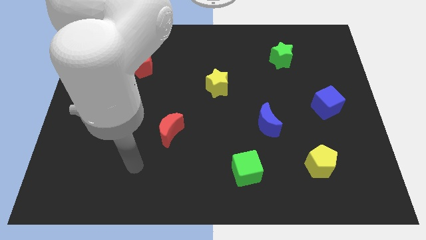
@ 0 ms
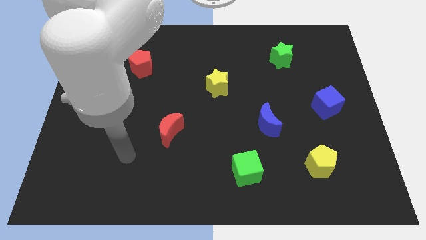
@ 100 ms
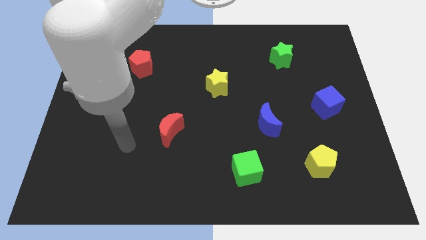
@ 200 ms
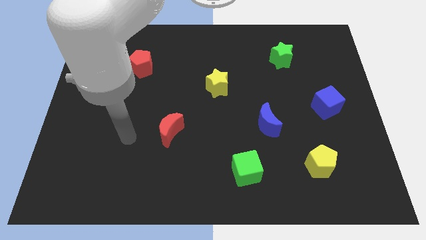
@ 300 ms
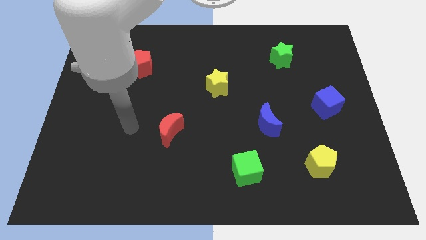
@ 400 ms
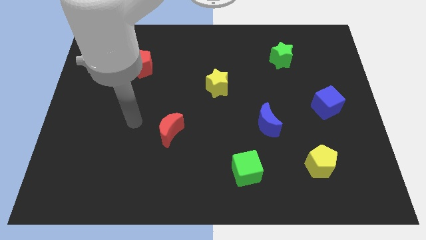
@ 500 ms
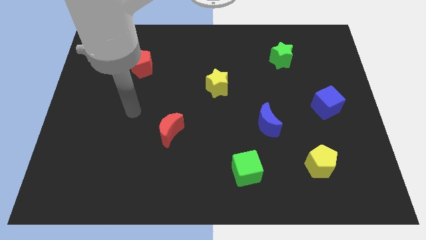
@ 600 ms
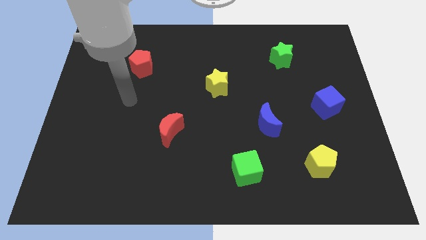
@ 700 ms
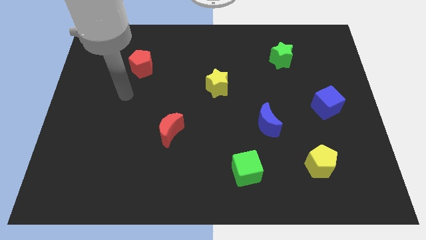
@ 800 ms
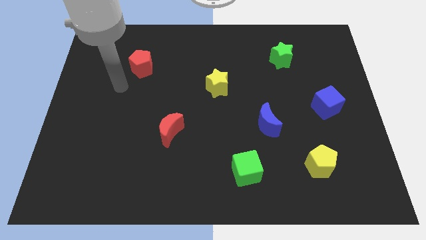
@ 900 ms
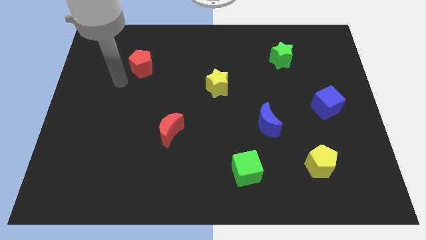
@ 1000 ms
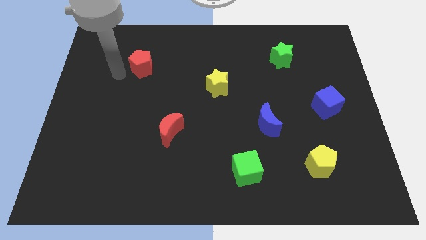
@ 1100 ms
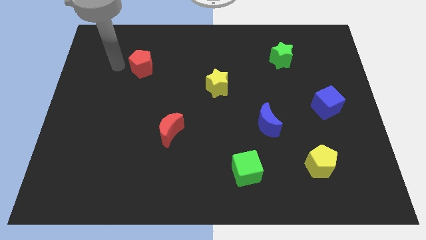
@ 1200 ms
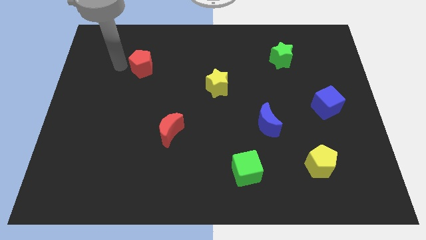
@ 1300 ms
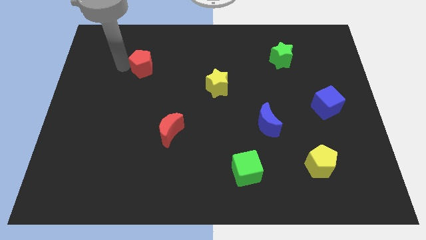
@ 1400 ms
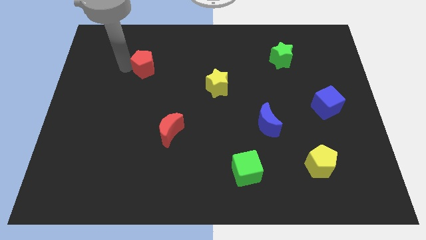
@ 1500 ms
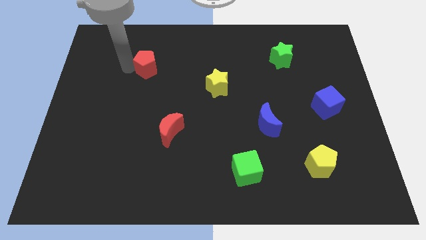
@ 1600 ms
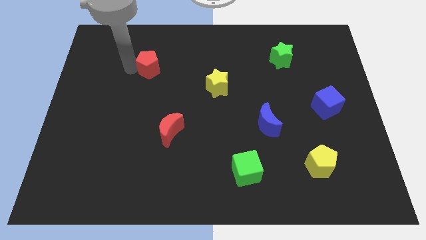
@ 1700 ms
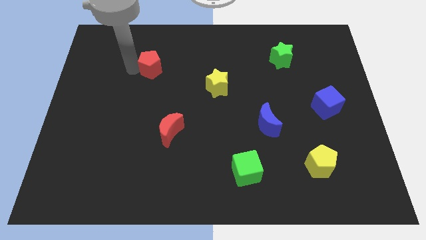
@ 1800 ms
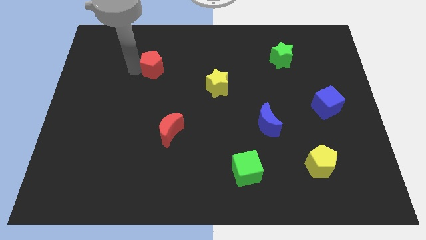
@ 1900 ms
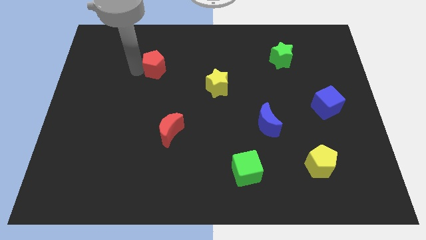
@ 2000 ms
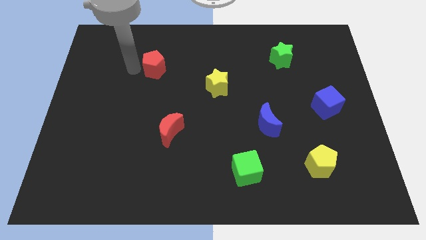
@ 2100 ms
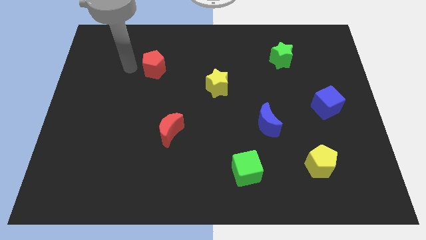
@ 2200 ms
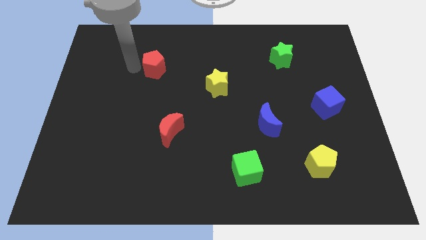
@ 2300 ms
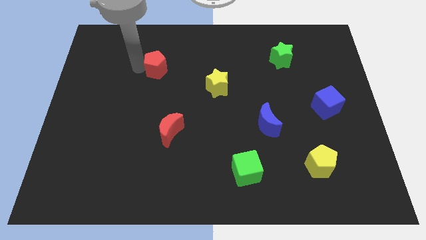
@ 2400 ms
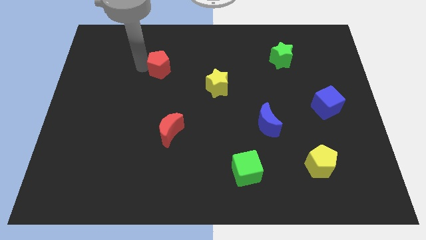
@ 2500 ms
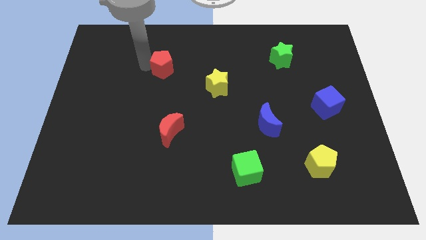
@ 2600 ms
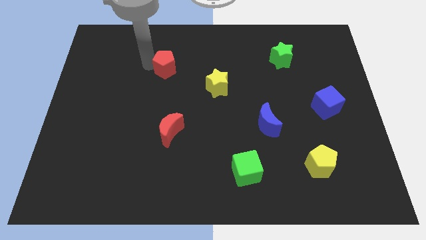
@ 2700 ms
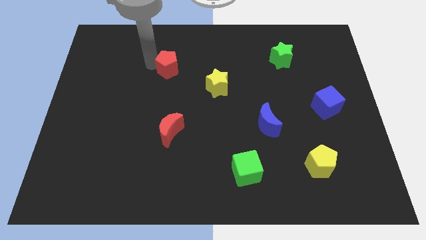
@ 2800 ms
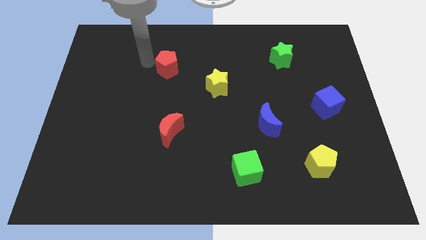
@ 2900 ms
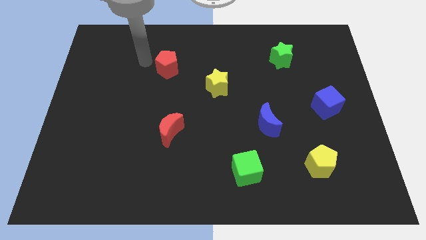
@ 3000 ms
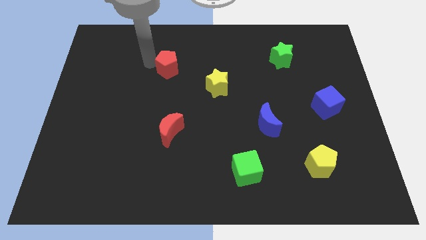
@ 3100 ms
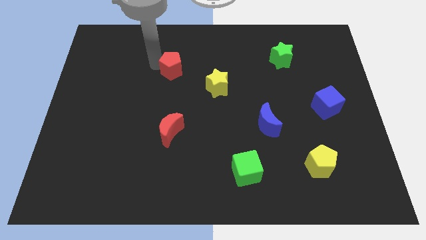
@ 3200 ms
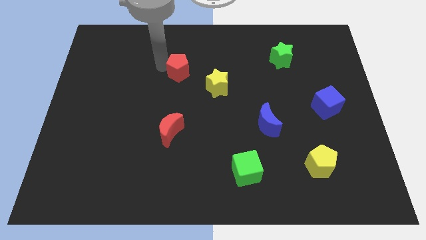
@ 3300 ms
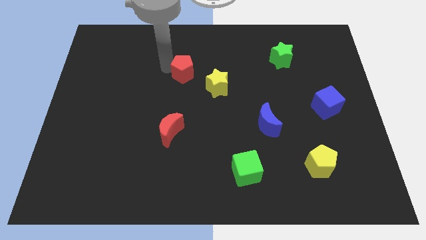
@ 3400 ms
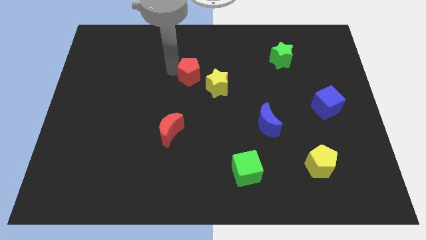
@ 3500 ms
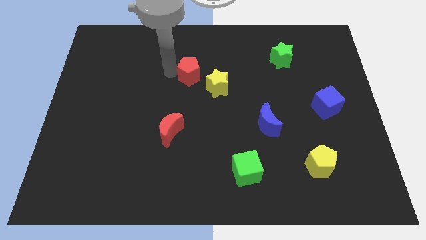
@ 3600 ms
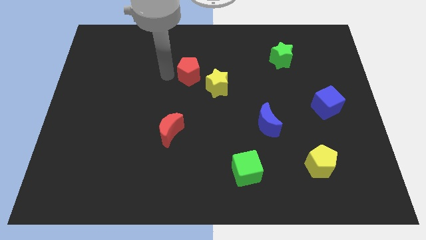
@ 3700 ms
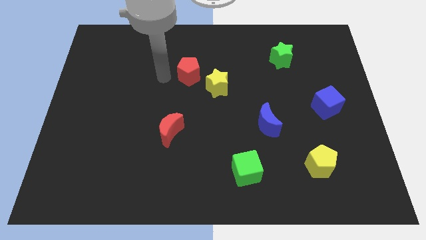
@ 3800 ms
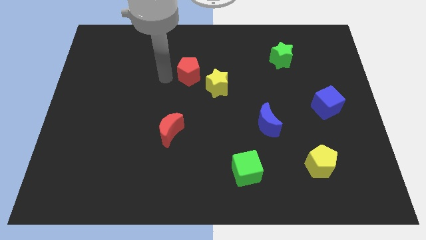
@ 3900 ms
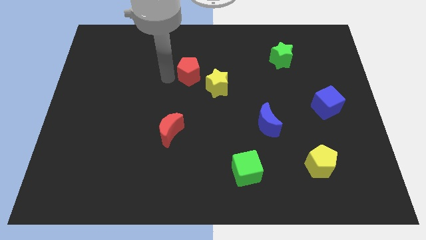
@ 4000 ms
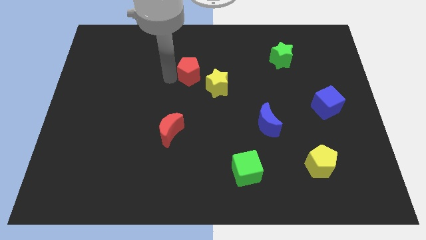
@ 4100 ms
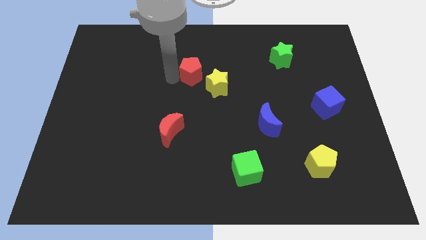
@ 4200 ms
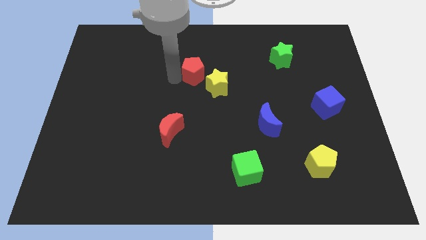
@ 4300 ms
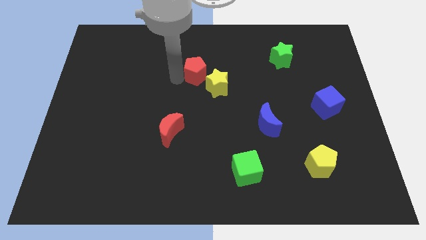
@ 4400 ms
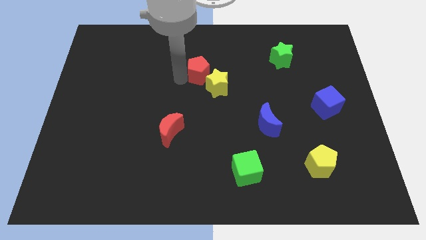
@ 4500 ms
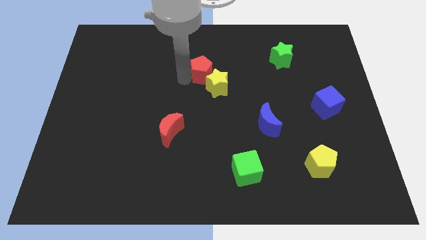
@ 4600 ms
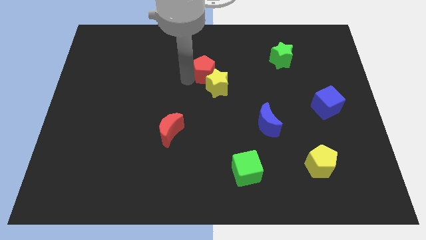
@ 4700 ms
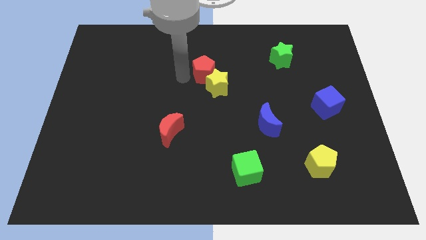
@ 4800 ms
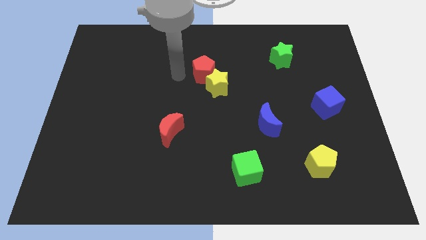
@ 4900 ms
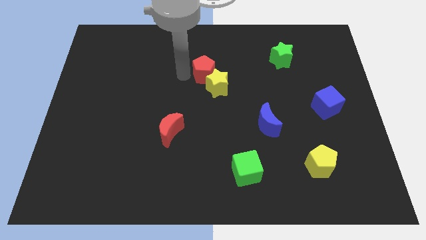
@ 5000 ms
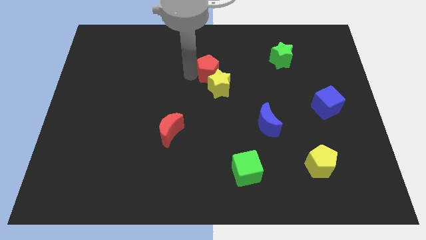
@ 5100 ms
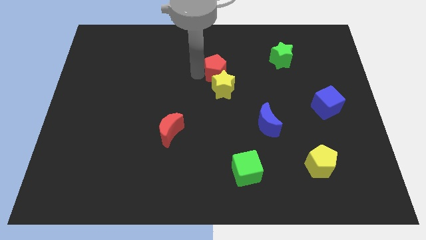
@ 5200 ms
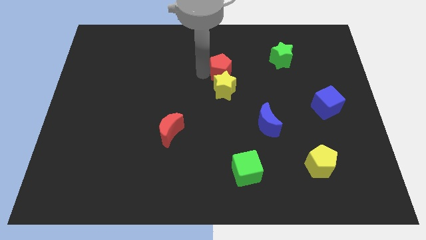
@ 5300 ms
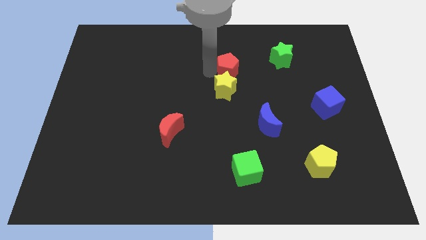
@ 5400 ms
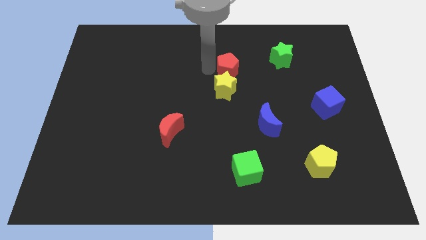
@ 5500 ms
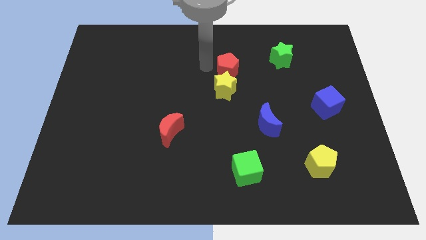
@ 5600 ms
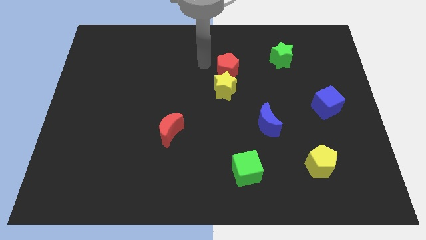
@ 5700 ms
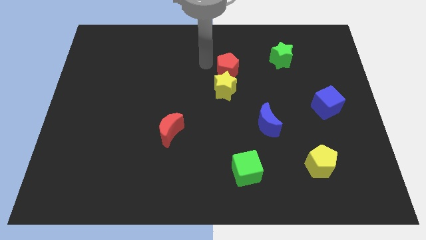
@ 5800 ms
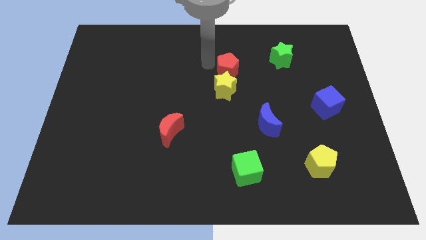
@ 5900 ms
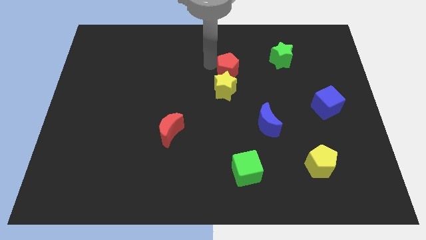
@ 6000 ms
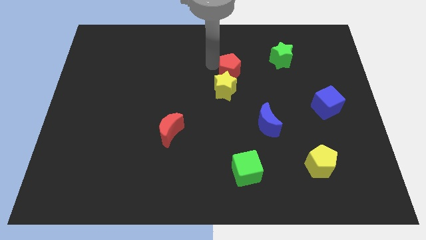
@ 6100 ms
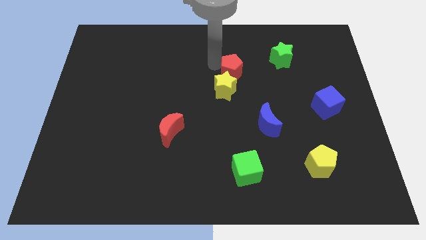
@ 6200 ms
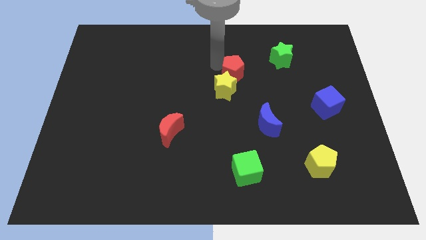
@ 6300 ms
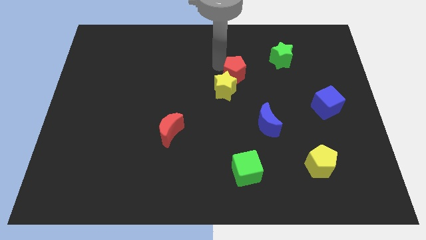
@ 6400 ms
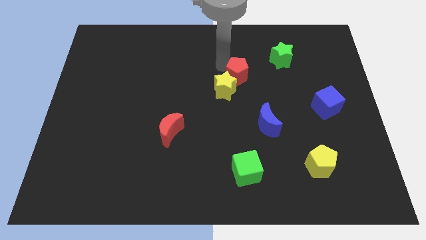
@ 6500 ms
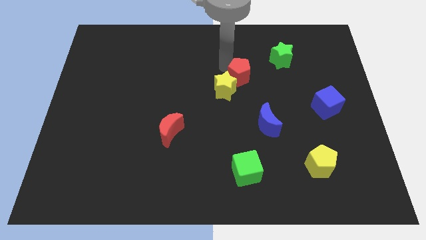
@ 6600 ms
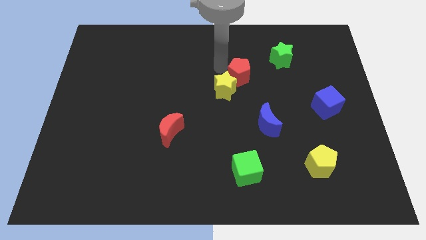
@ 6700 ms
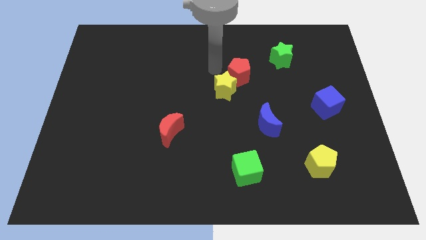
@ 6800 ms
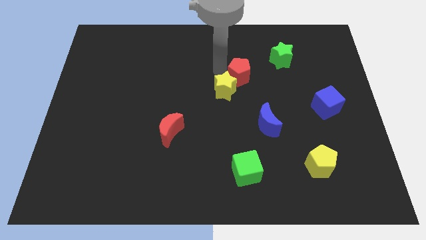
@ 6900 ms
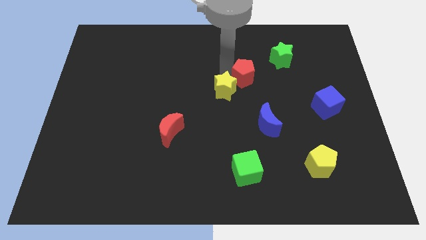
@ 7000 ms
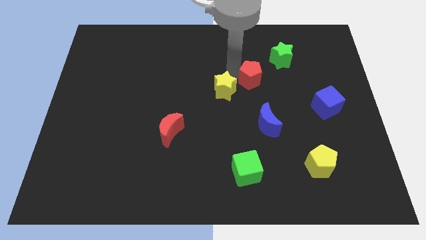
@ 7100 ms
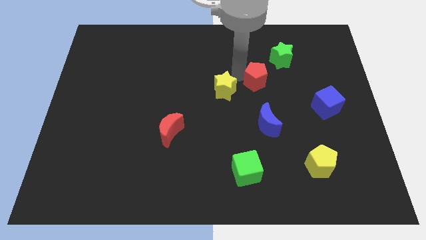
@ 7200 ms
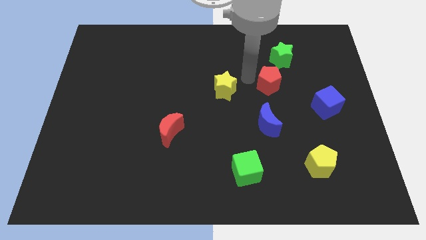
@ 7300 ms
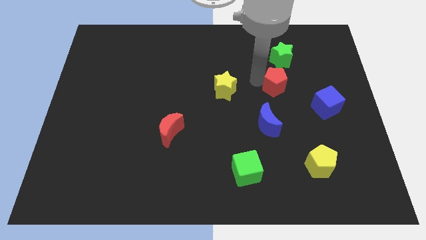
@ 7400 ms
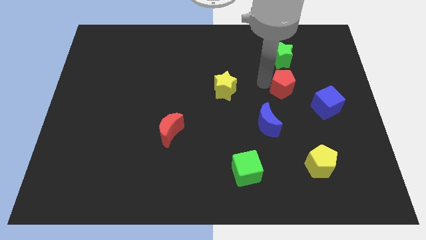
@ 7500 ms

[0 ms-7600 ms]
slide the red pentagon to the top left side of the blue cube
